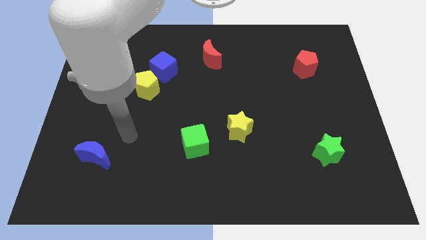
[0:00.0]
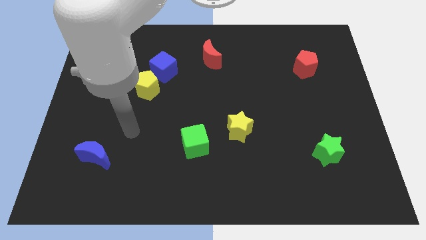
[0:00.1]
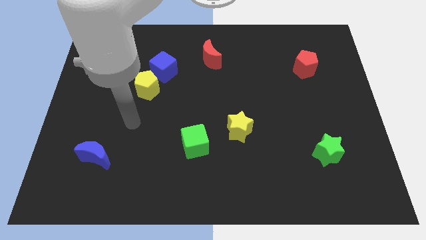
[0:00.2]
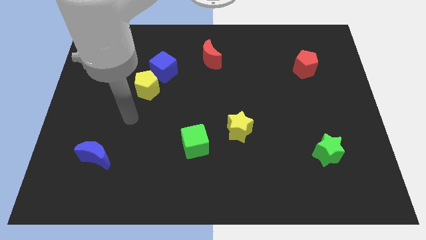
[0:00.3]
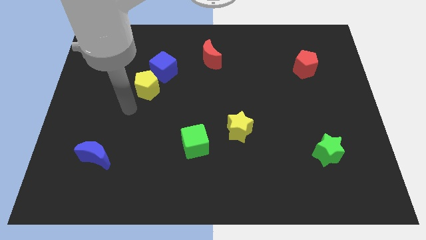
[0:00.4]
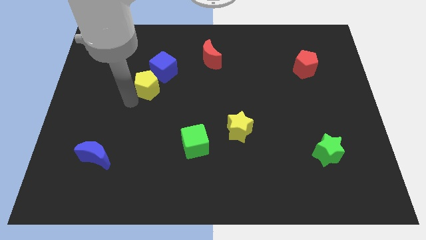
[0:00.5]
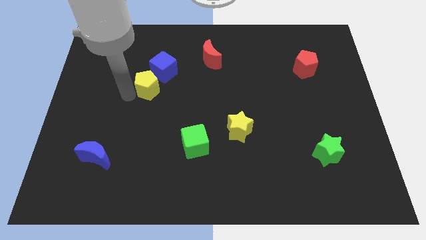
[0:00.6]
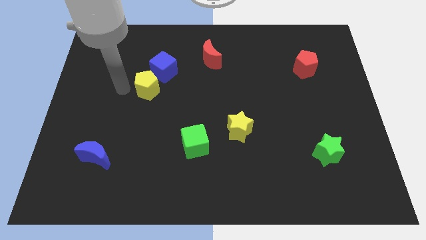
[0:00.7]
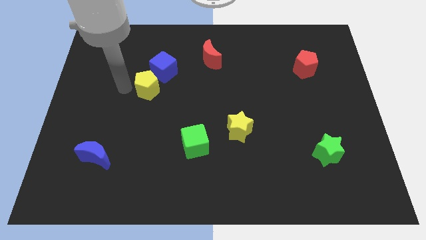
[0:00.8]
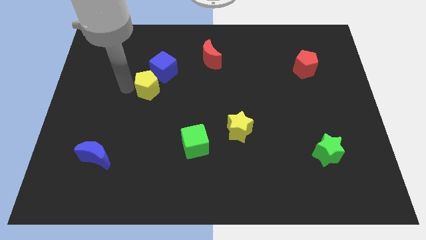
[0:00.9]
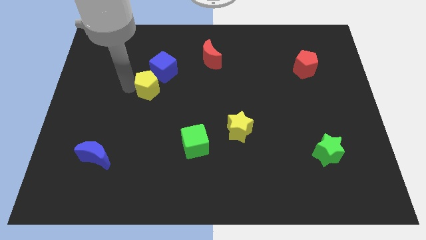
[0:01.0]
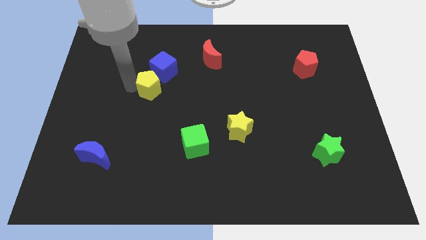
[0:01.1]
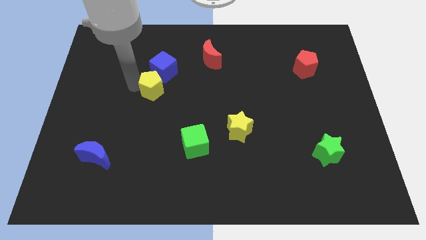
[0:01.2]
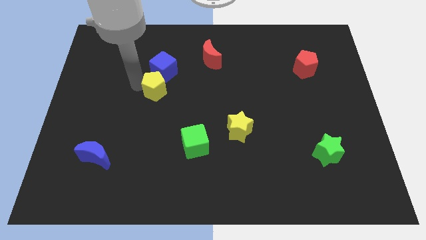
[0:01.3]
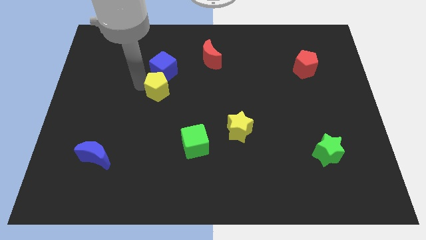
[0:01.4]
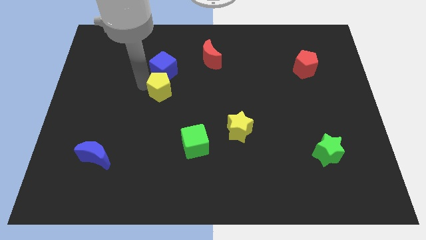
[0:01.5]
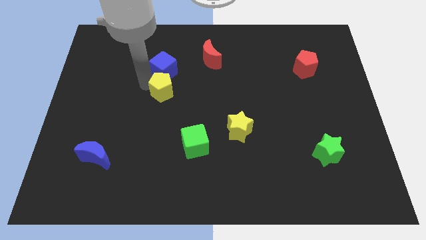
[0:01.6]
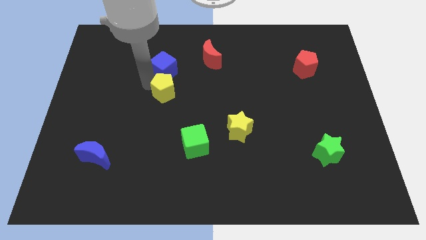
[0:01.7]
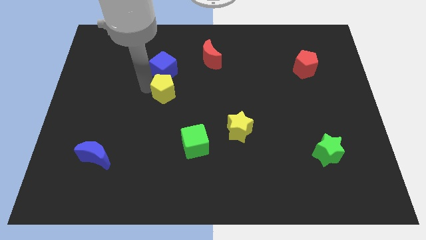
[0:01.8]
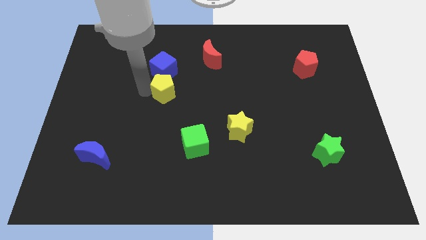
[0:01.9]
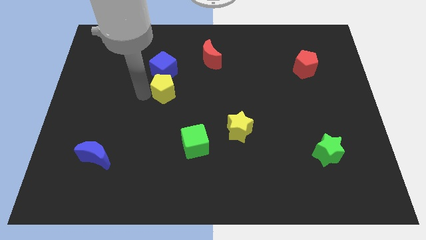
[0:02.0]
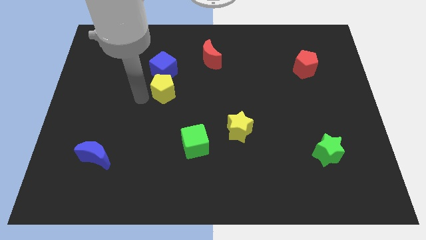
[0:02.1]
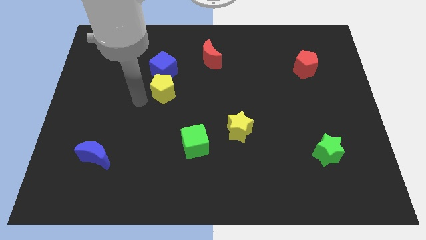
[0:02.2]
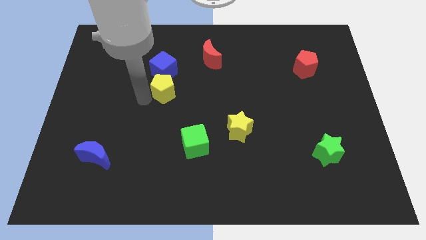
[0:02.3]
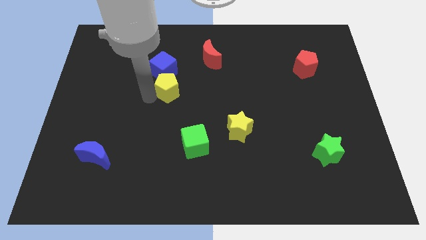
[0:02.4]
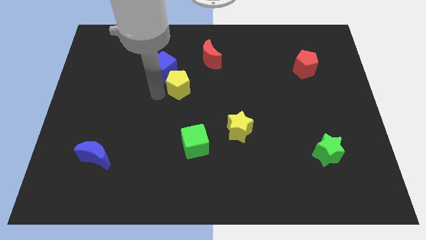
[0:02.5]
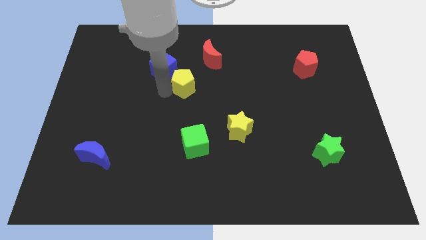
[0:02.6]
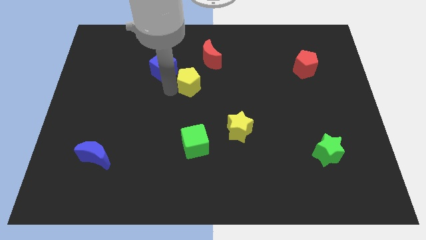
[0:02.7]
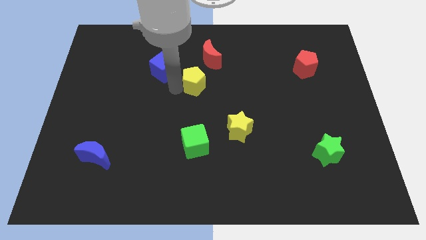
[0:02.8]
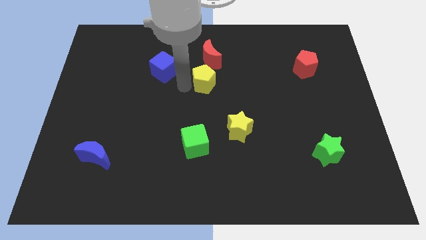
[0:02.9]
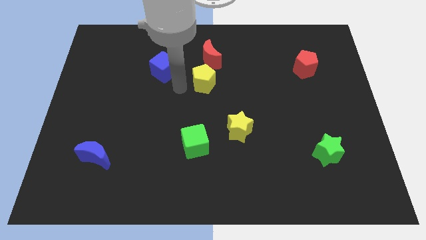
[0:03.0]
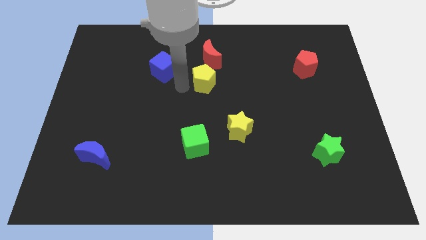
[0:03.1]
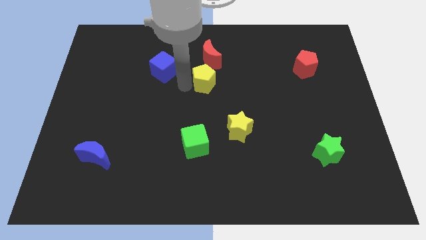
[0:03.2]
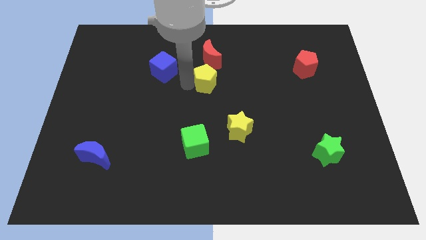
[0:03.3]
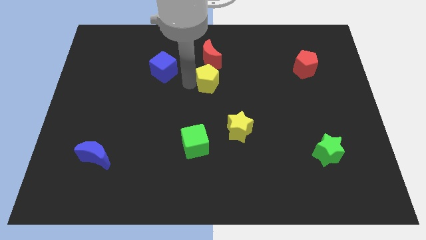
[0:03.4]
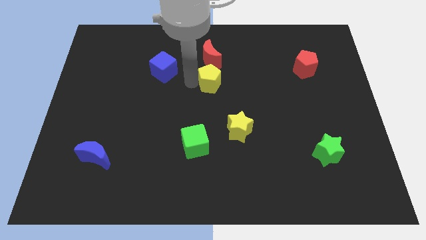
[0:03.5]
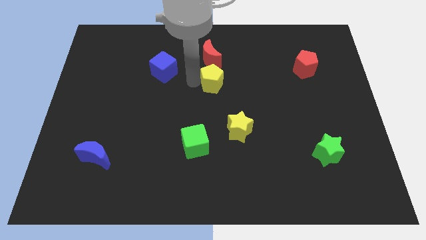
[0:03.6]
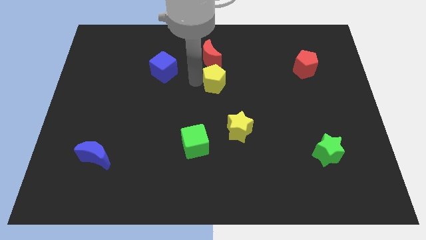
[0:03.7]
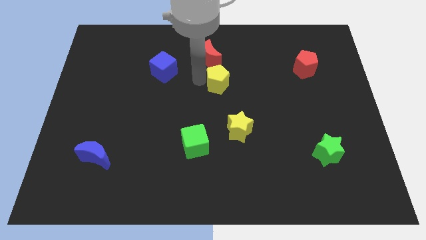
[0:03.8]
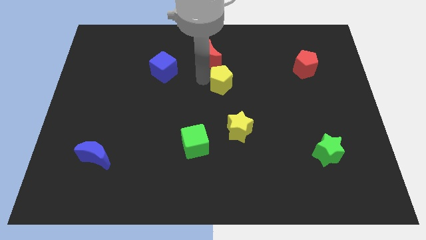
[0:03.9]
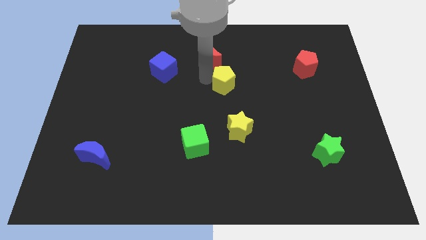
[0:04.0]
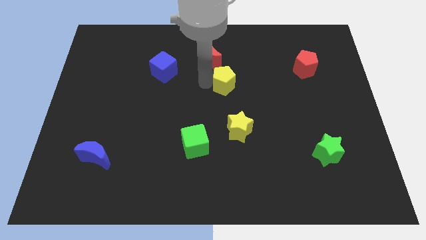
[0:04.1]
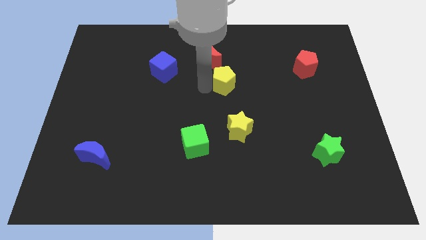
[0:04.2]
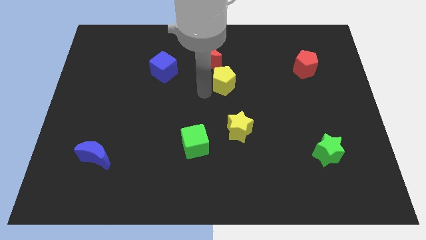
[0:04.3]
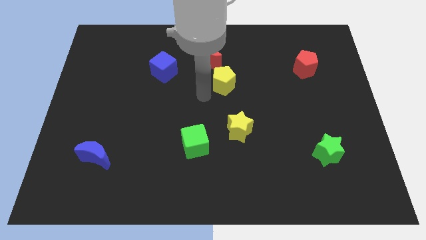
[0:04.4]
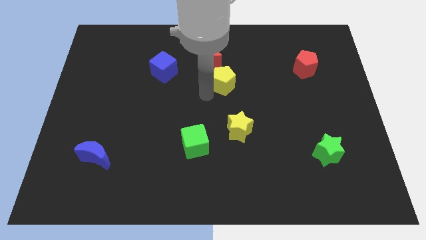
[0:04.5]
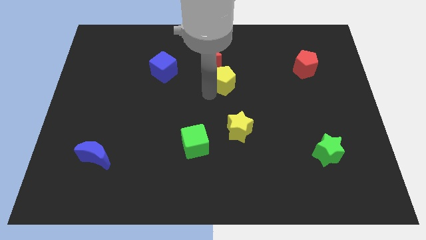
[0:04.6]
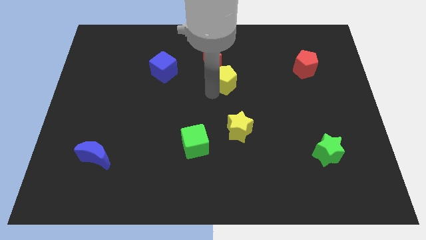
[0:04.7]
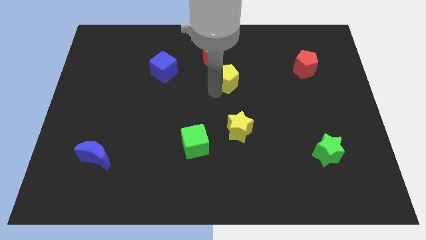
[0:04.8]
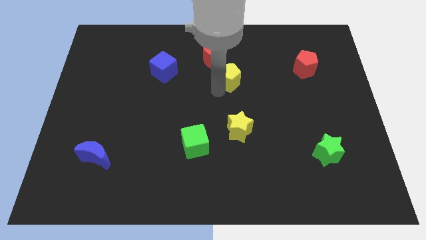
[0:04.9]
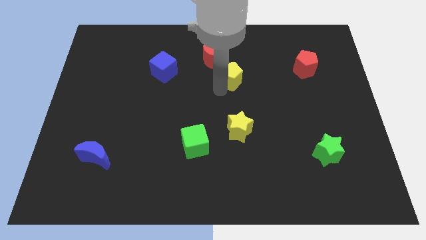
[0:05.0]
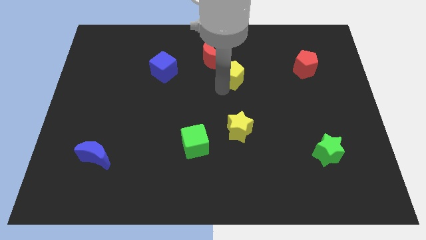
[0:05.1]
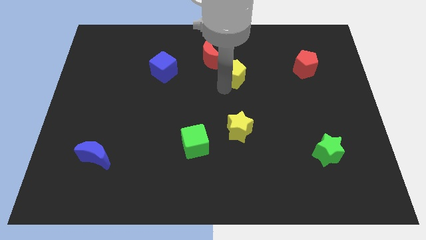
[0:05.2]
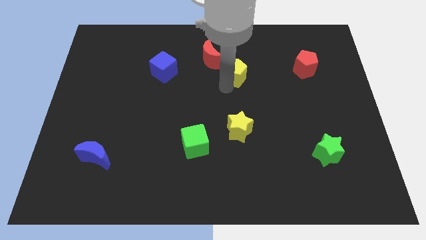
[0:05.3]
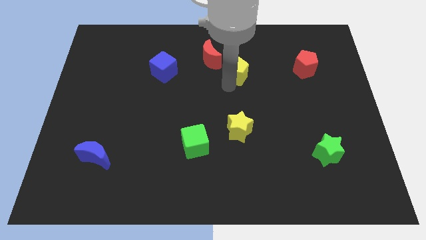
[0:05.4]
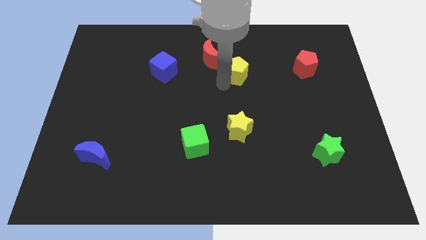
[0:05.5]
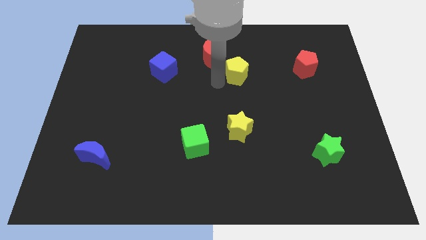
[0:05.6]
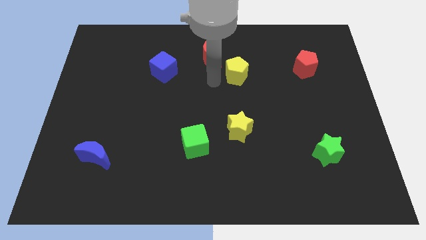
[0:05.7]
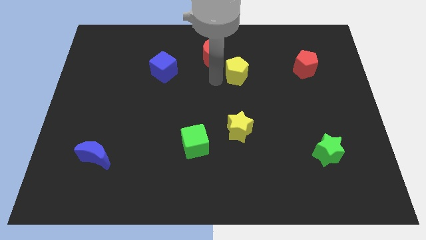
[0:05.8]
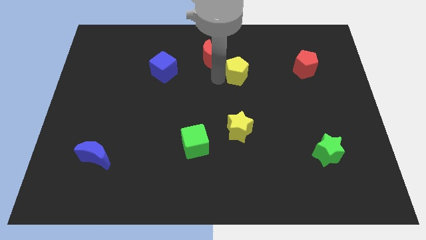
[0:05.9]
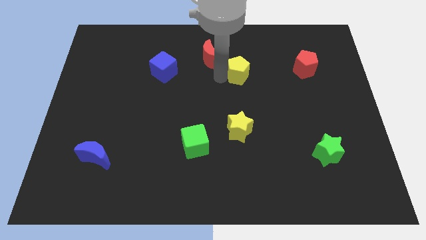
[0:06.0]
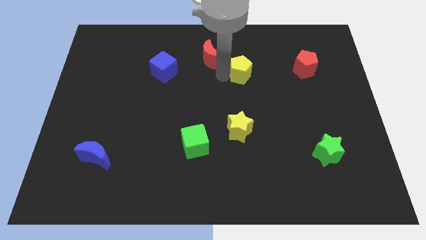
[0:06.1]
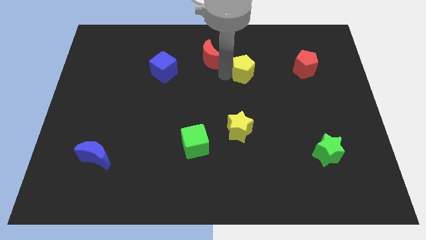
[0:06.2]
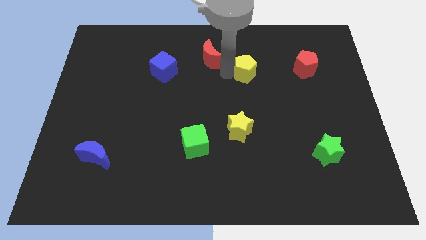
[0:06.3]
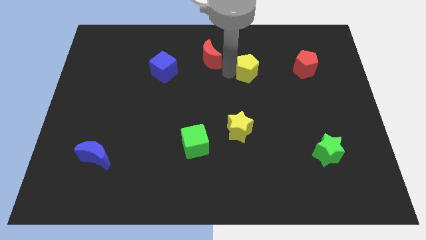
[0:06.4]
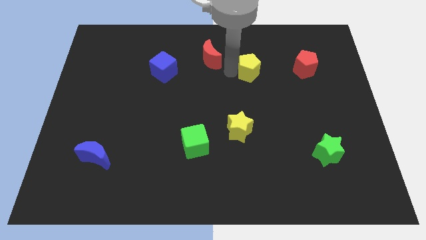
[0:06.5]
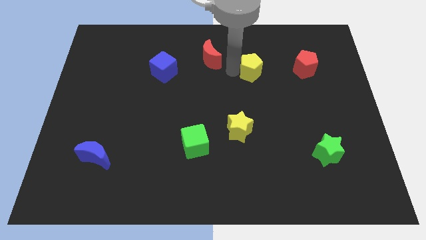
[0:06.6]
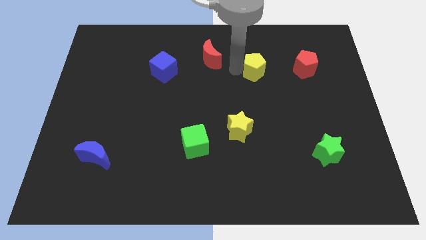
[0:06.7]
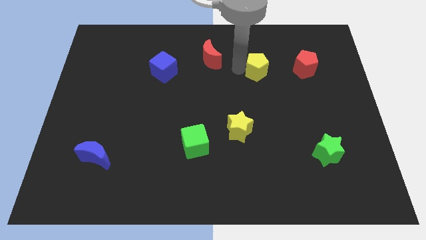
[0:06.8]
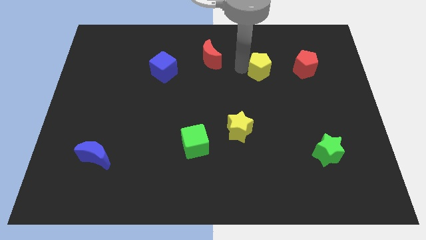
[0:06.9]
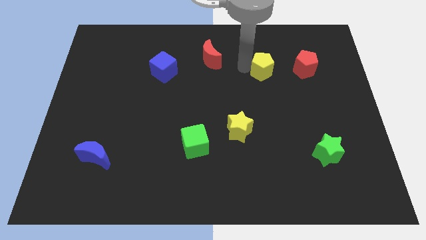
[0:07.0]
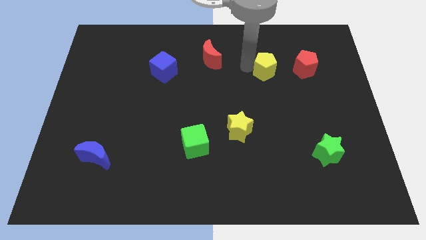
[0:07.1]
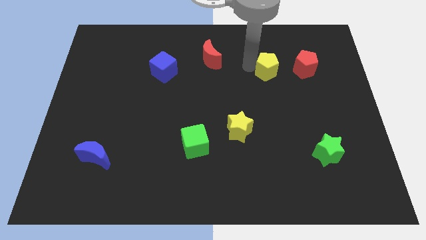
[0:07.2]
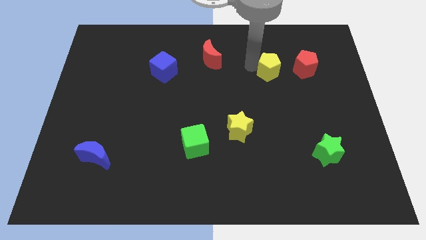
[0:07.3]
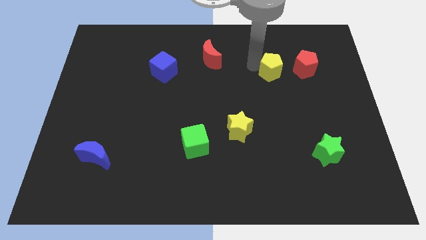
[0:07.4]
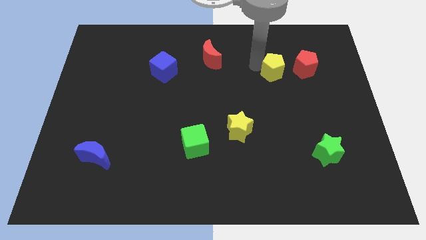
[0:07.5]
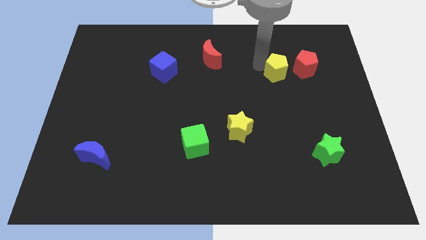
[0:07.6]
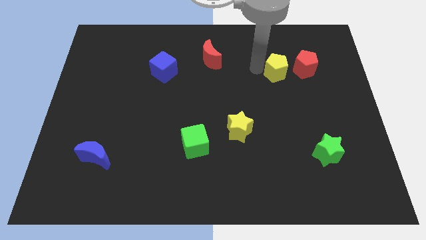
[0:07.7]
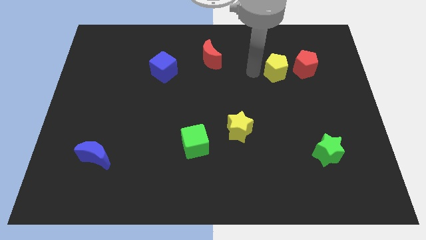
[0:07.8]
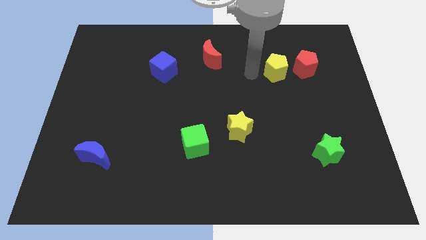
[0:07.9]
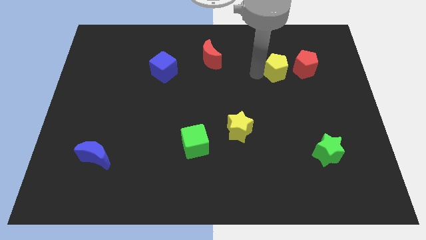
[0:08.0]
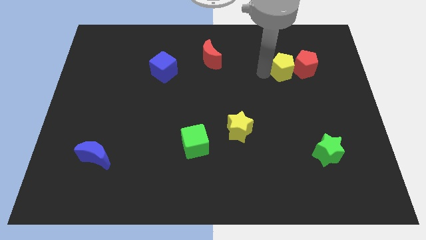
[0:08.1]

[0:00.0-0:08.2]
slide the yellow pentagon towards the red pentagon
